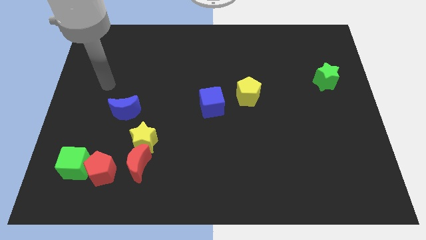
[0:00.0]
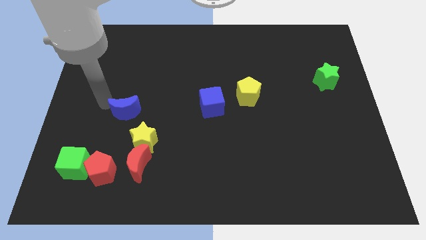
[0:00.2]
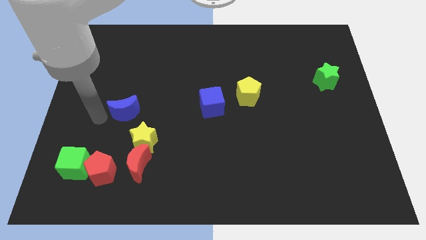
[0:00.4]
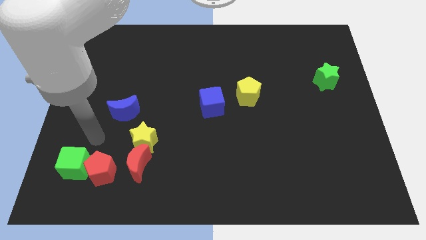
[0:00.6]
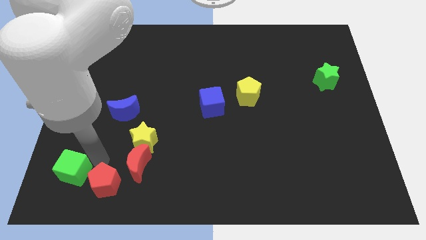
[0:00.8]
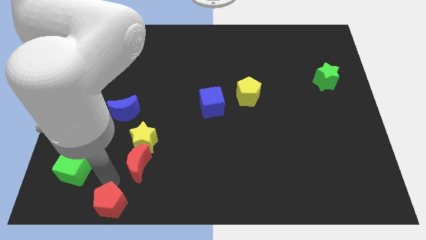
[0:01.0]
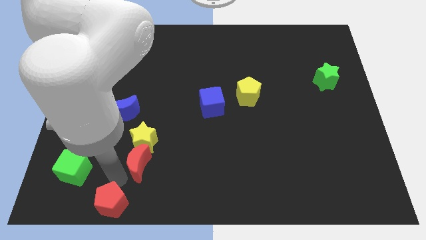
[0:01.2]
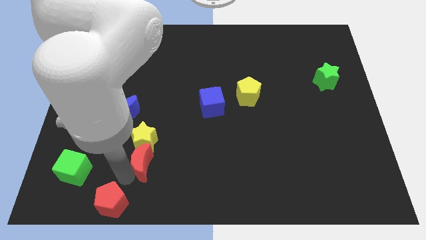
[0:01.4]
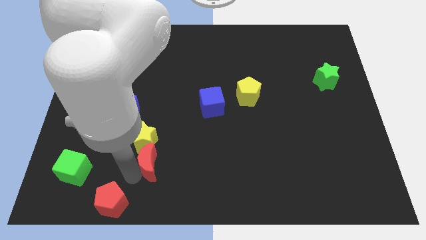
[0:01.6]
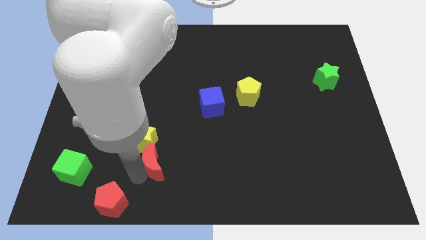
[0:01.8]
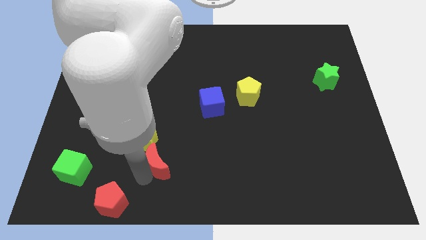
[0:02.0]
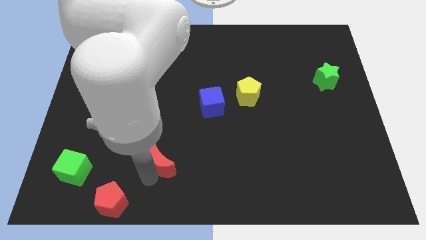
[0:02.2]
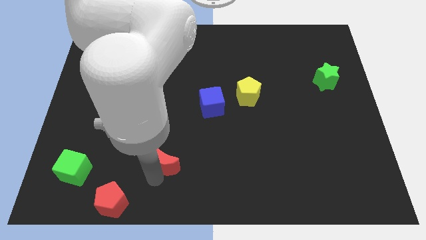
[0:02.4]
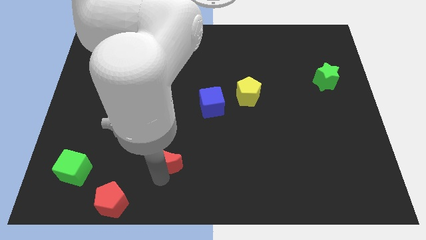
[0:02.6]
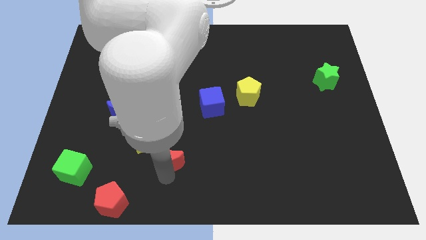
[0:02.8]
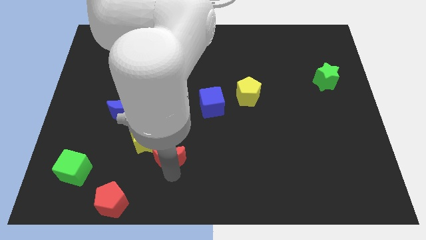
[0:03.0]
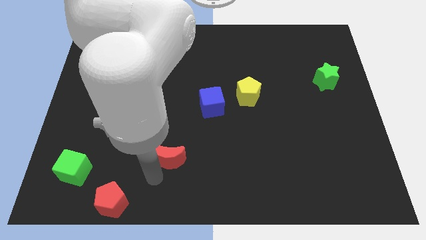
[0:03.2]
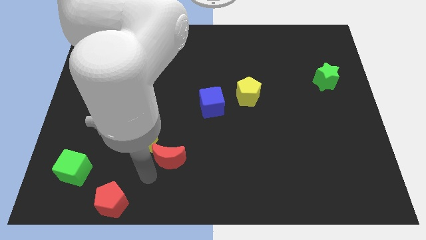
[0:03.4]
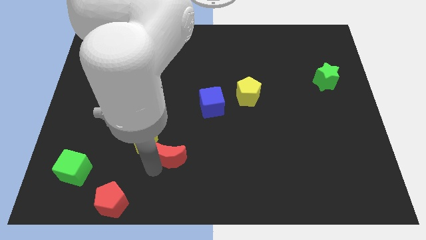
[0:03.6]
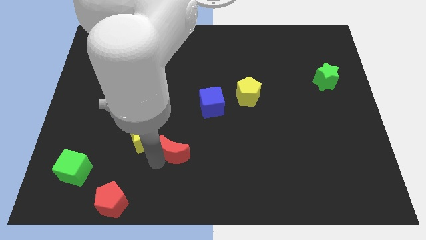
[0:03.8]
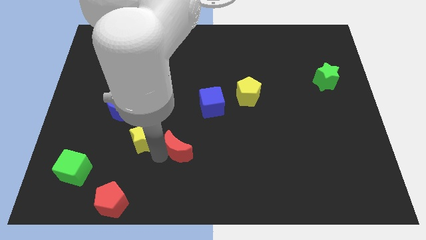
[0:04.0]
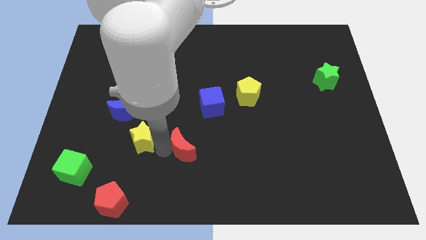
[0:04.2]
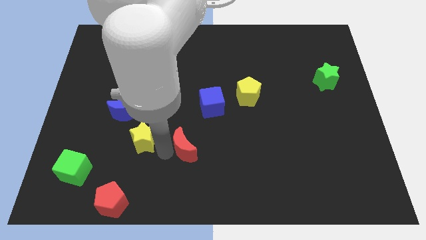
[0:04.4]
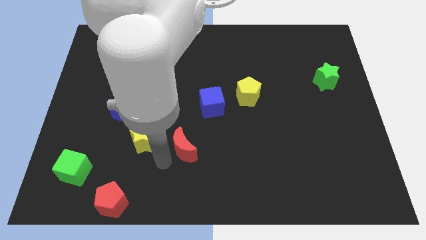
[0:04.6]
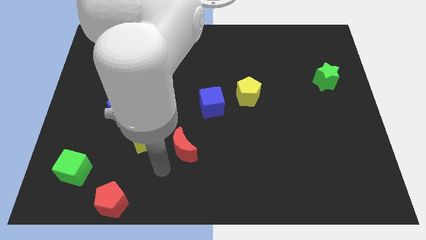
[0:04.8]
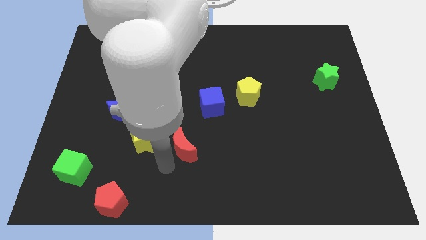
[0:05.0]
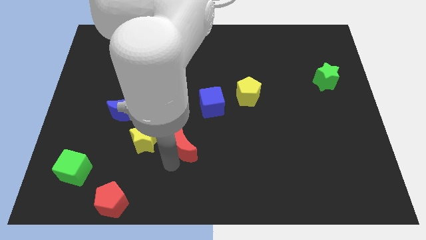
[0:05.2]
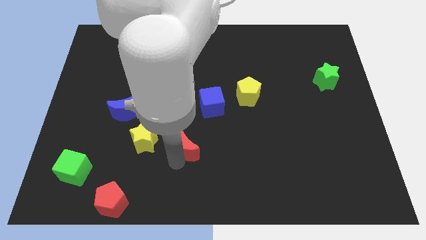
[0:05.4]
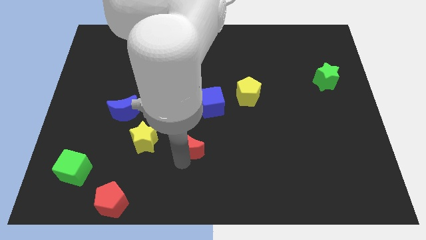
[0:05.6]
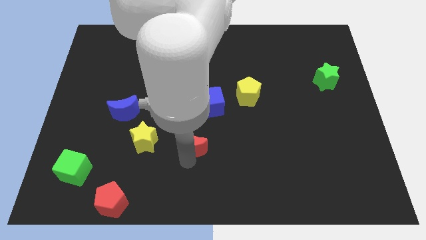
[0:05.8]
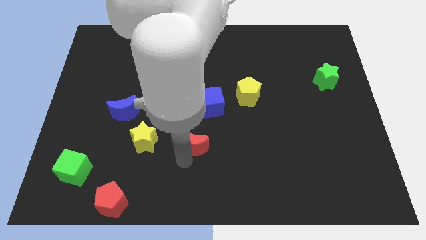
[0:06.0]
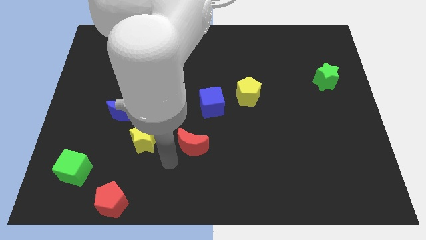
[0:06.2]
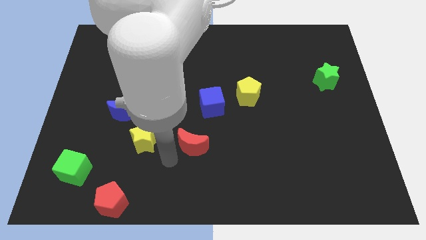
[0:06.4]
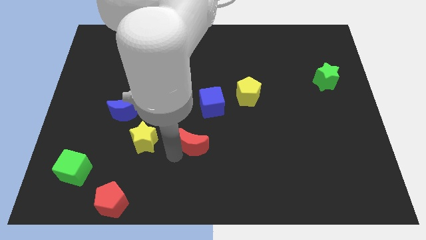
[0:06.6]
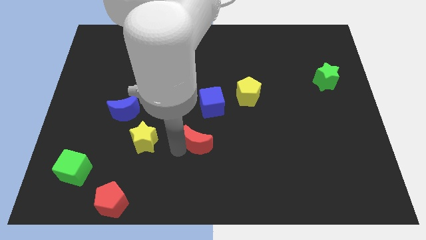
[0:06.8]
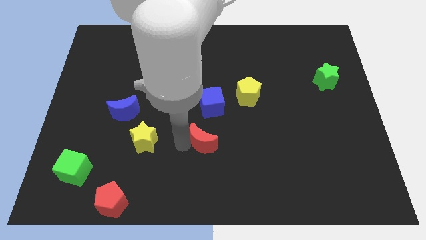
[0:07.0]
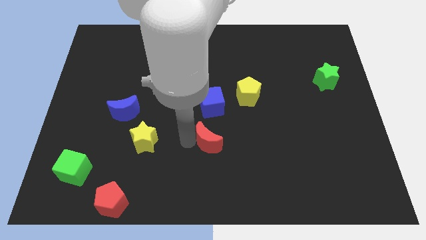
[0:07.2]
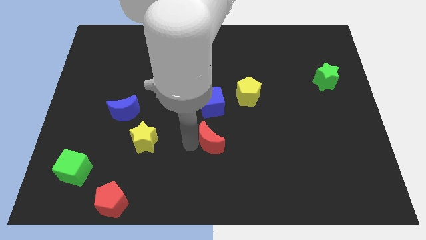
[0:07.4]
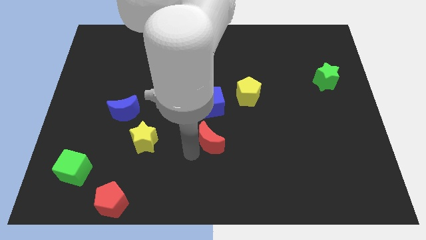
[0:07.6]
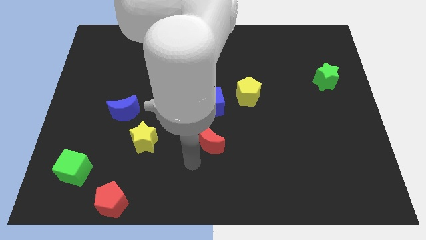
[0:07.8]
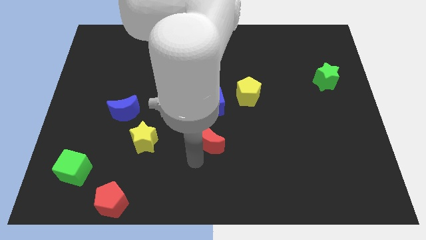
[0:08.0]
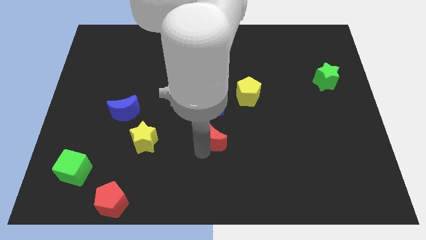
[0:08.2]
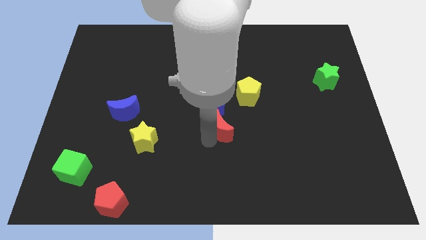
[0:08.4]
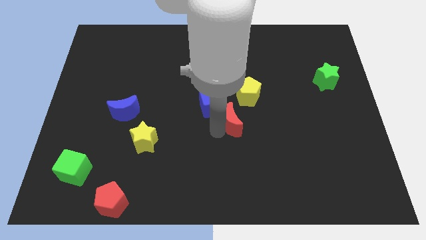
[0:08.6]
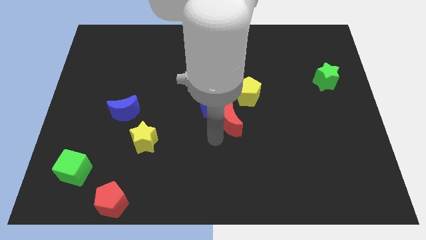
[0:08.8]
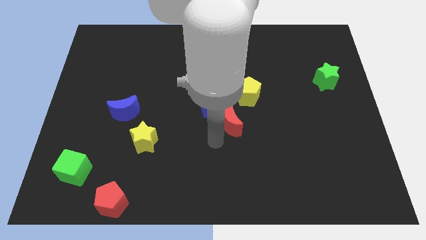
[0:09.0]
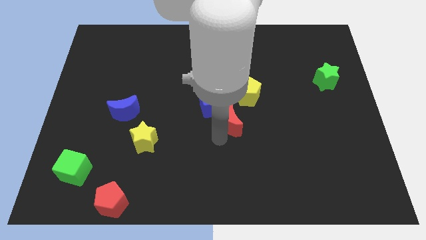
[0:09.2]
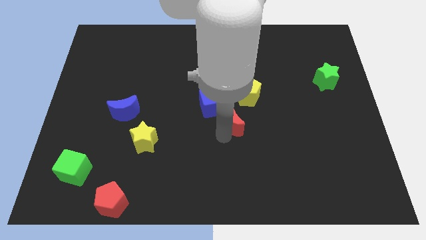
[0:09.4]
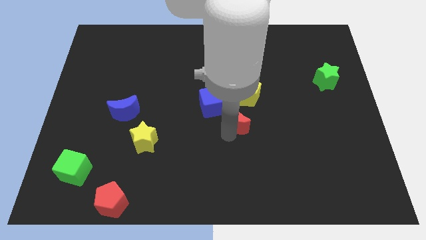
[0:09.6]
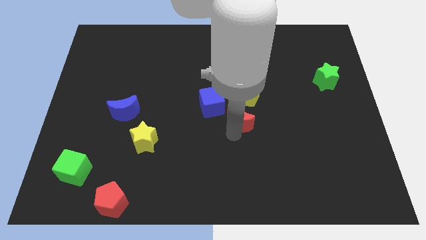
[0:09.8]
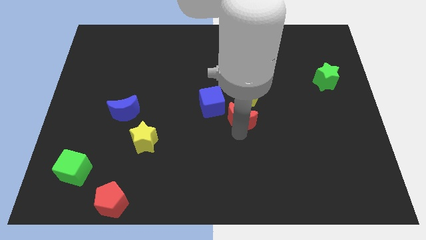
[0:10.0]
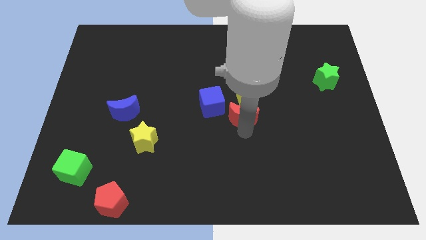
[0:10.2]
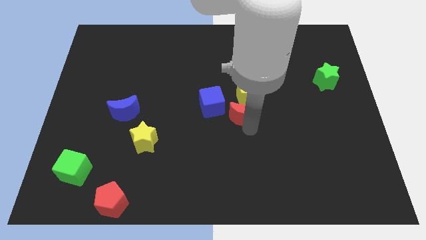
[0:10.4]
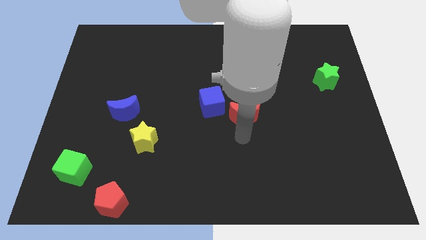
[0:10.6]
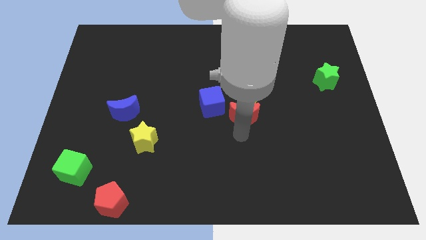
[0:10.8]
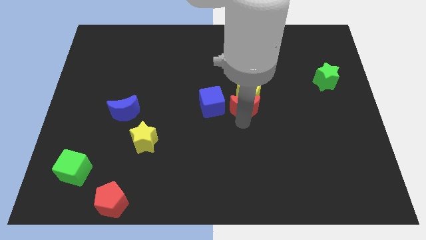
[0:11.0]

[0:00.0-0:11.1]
slide the red moon to the yellow pentagon

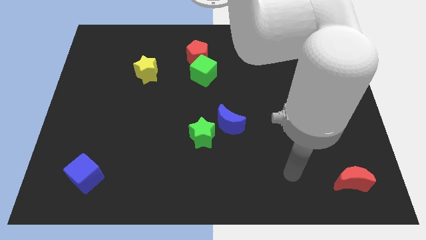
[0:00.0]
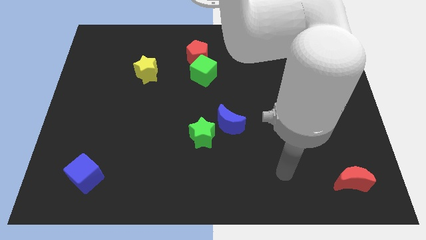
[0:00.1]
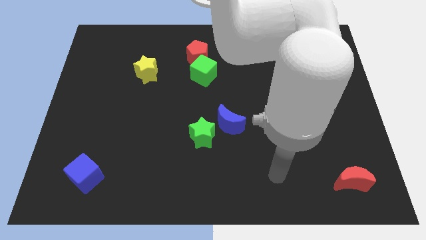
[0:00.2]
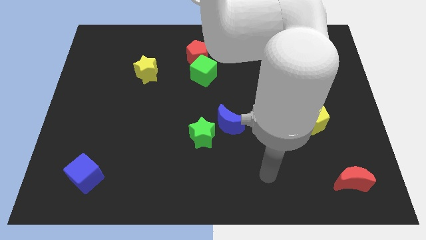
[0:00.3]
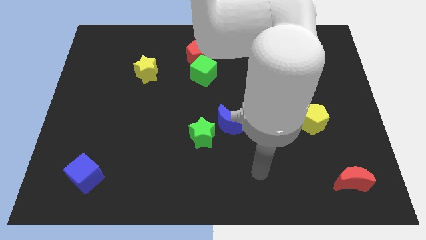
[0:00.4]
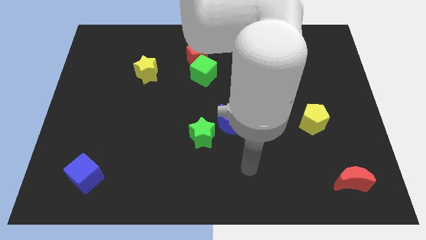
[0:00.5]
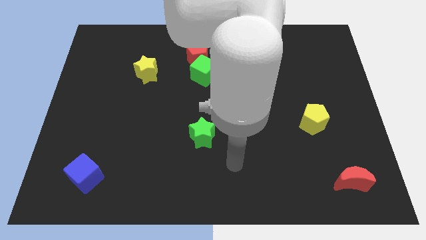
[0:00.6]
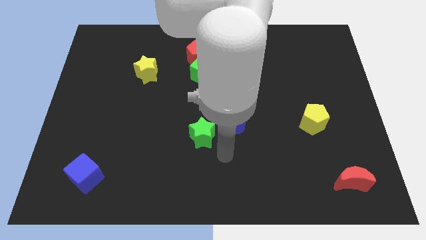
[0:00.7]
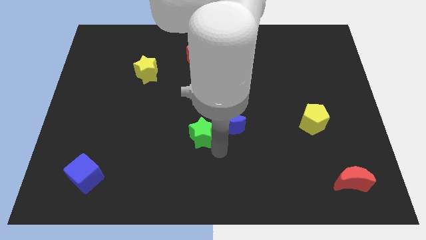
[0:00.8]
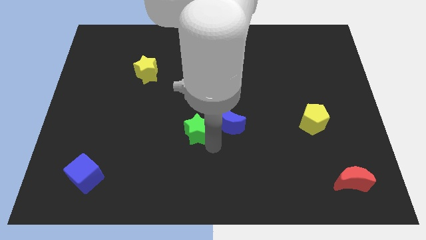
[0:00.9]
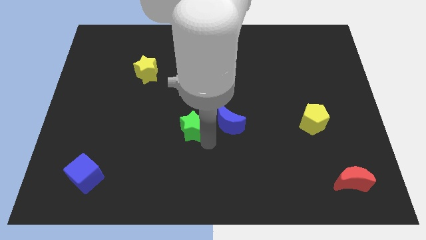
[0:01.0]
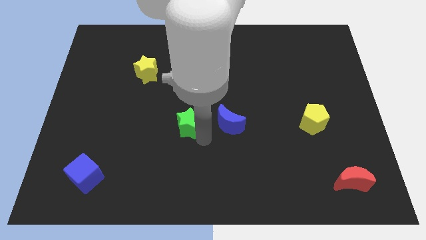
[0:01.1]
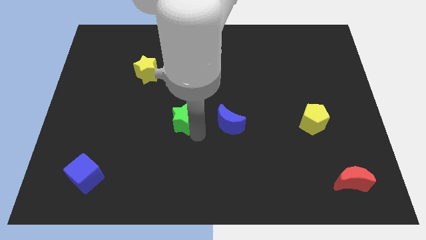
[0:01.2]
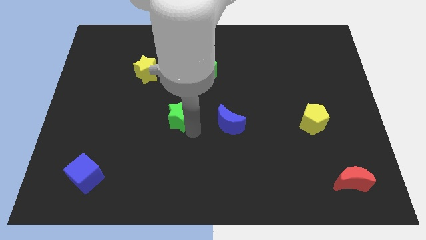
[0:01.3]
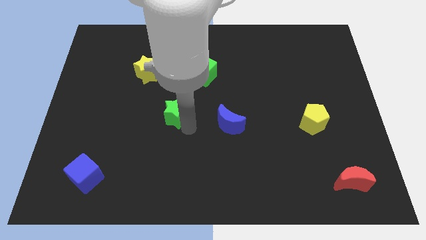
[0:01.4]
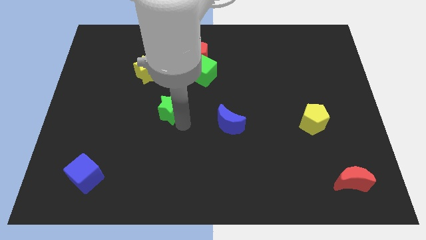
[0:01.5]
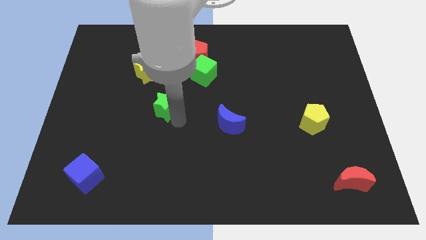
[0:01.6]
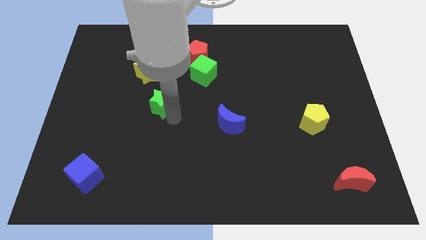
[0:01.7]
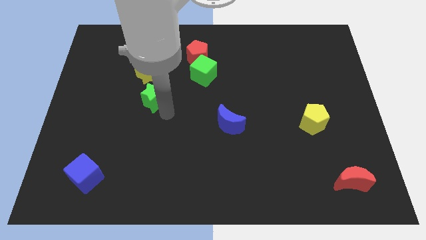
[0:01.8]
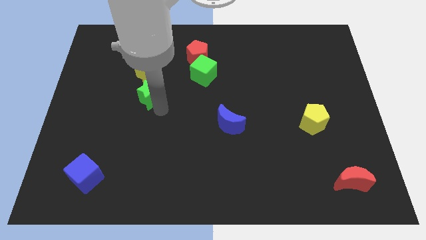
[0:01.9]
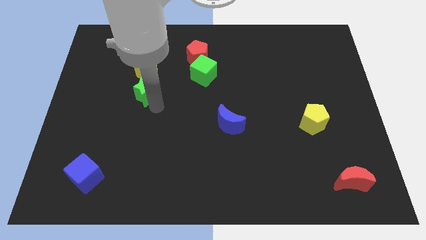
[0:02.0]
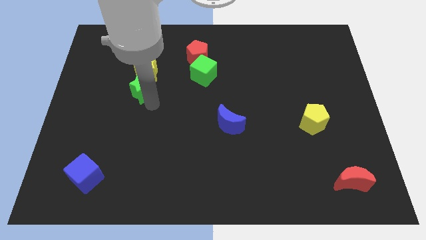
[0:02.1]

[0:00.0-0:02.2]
slide the green star next to the yellow star

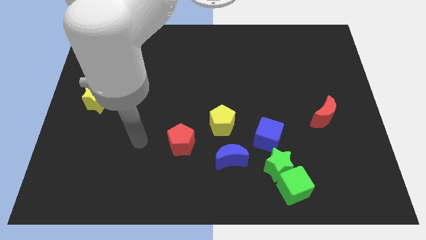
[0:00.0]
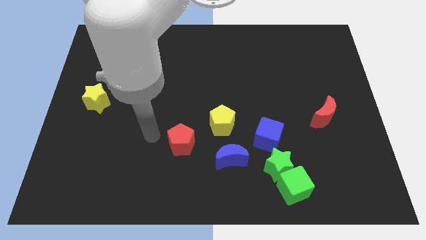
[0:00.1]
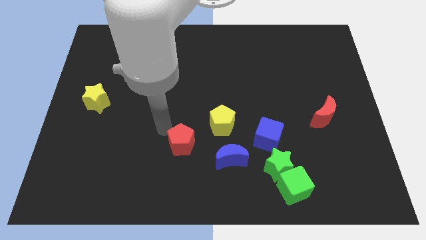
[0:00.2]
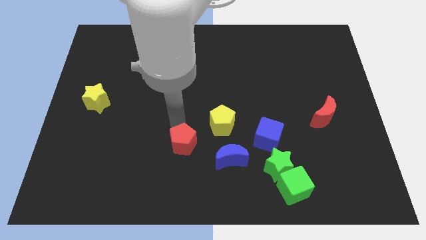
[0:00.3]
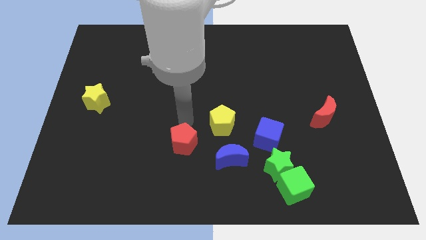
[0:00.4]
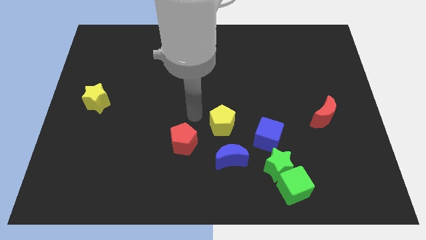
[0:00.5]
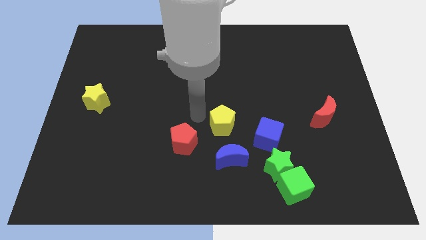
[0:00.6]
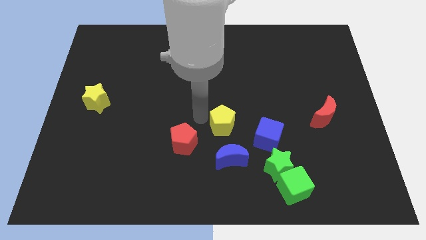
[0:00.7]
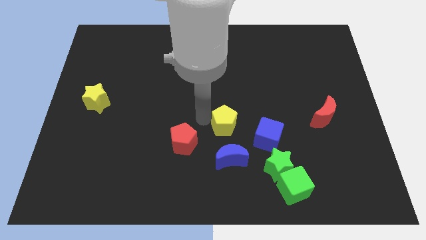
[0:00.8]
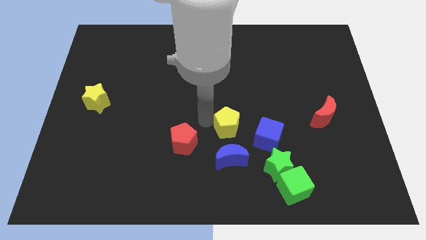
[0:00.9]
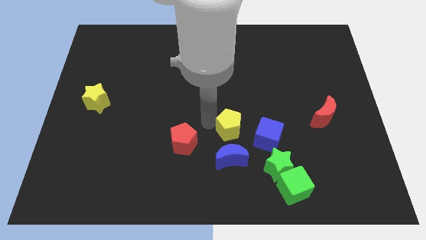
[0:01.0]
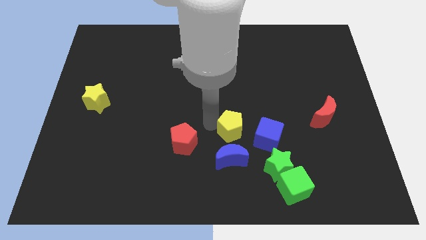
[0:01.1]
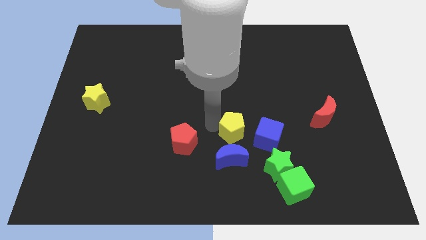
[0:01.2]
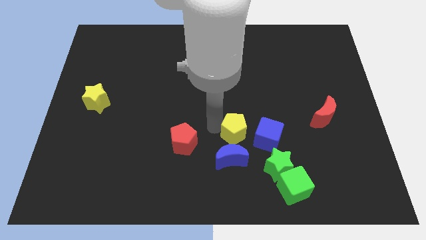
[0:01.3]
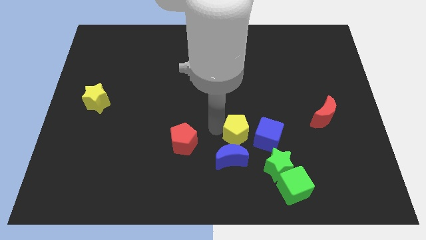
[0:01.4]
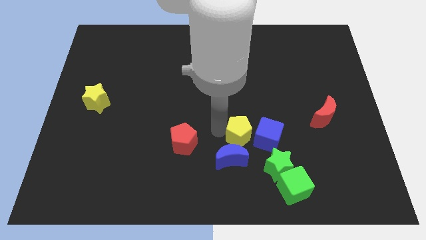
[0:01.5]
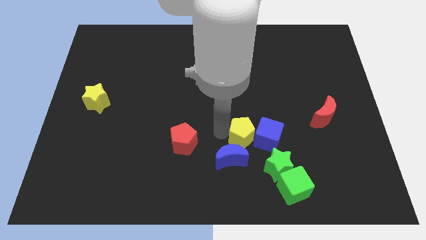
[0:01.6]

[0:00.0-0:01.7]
slide the yellow pentagon next to the blue cube
